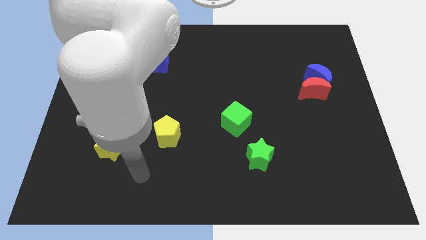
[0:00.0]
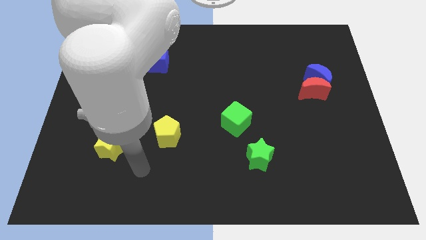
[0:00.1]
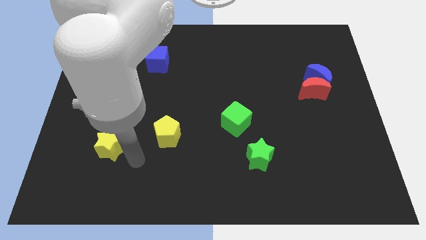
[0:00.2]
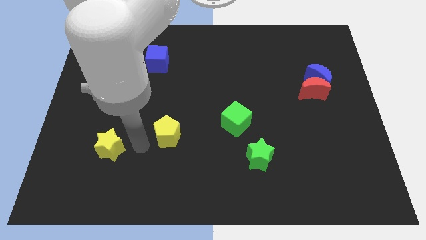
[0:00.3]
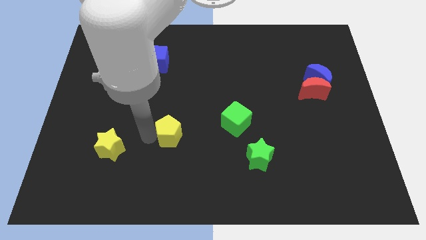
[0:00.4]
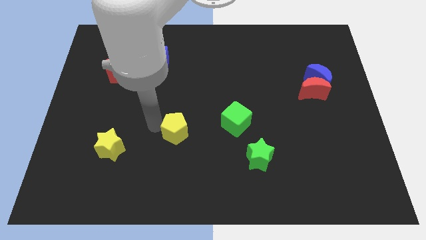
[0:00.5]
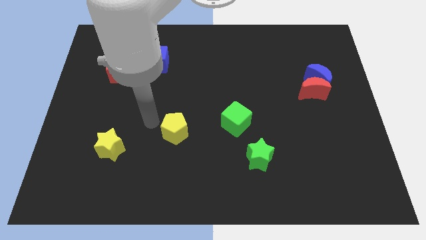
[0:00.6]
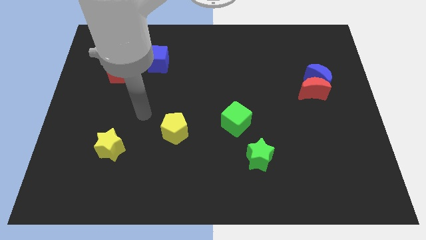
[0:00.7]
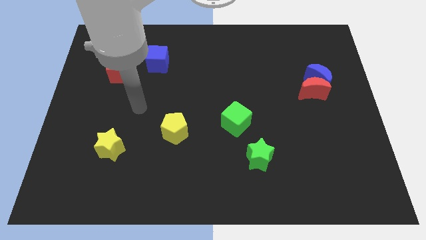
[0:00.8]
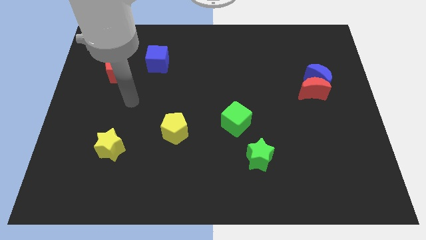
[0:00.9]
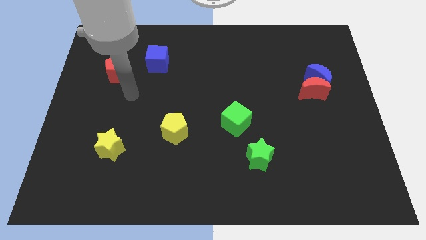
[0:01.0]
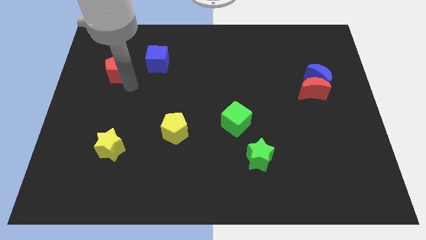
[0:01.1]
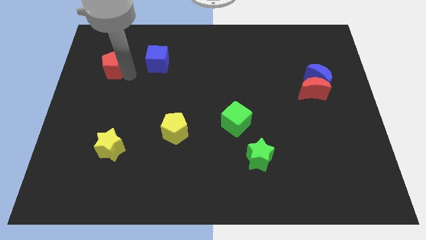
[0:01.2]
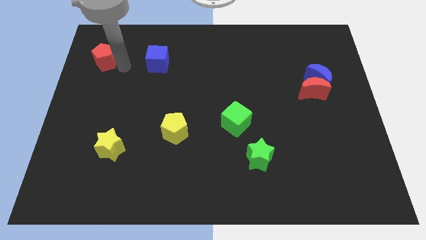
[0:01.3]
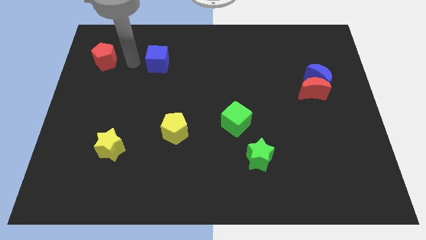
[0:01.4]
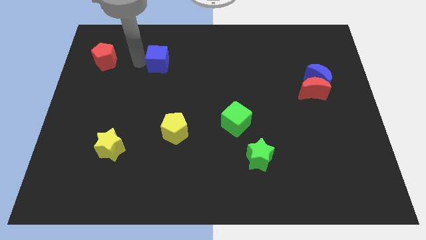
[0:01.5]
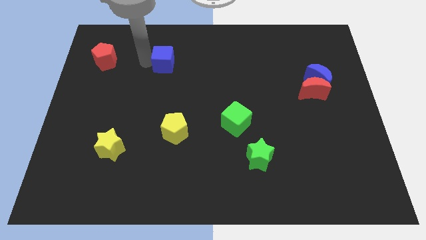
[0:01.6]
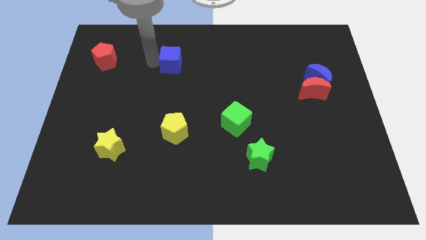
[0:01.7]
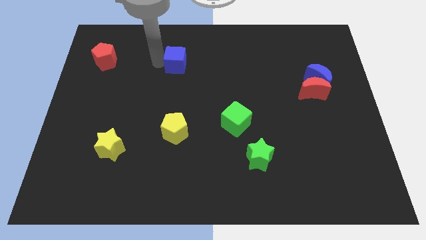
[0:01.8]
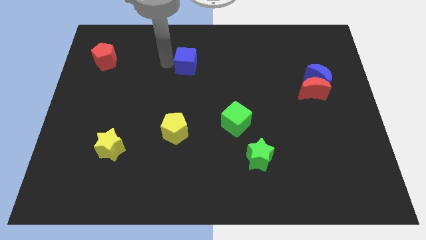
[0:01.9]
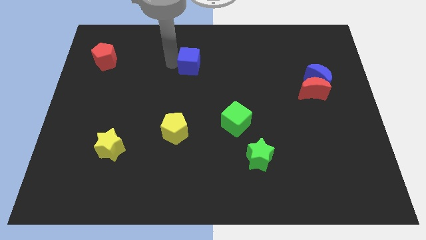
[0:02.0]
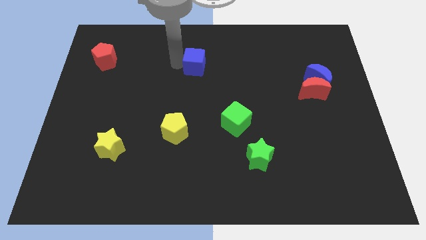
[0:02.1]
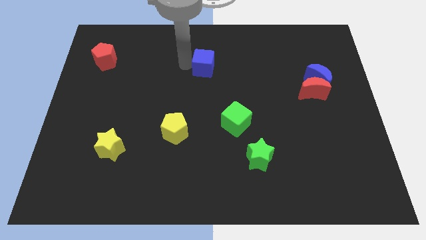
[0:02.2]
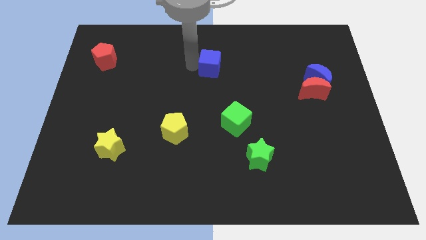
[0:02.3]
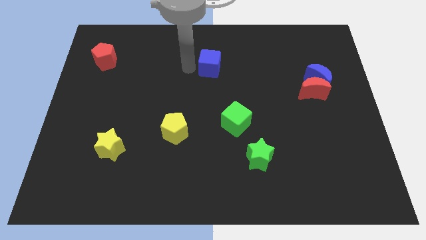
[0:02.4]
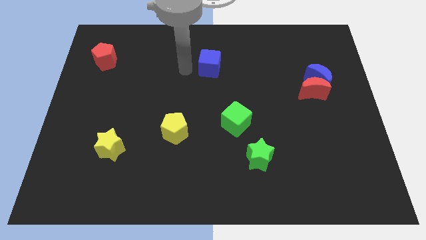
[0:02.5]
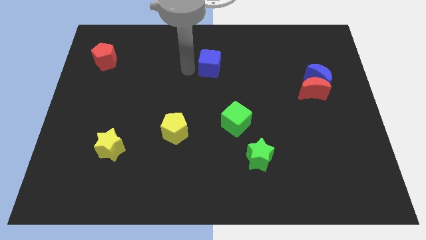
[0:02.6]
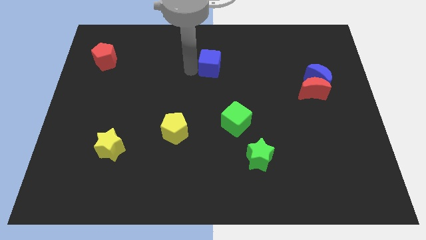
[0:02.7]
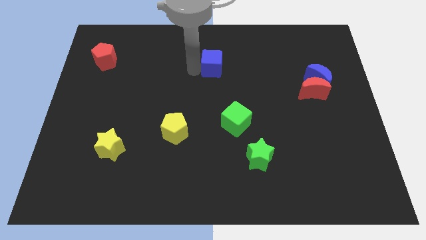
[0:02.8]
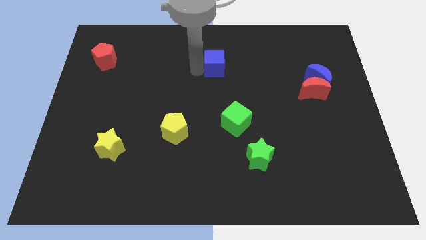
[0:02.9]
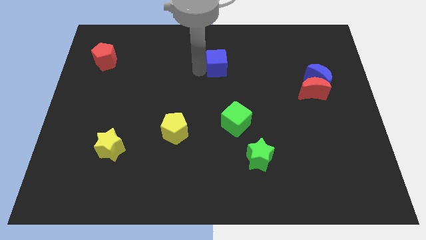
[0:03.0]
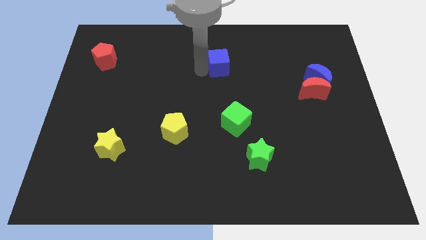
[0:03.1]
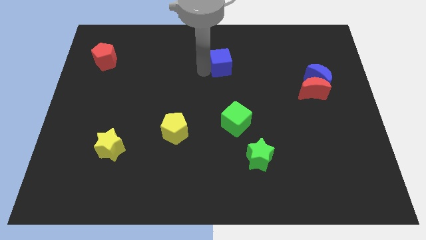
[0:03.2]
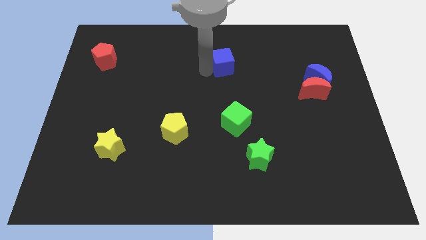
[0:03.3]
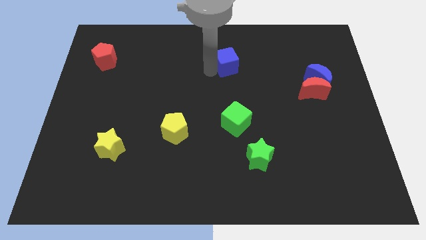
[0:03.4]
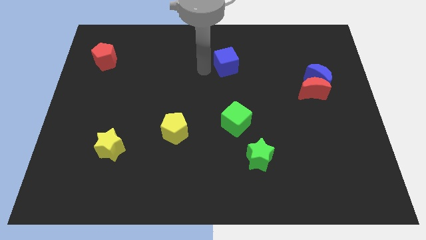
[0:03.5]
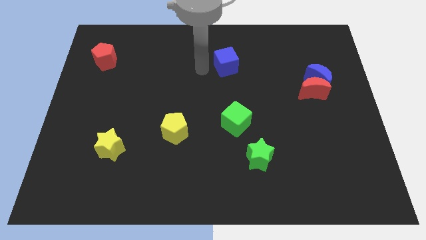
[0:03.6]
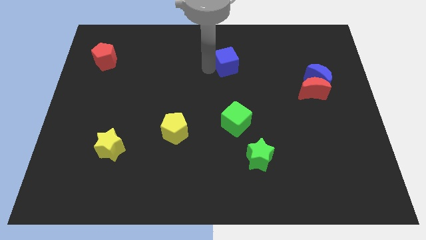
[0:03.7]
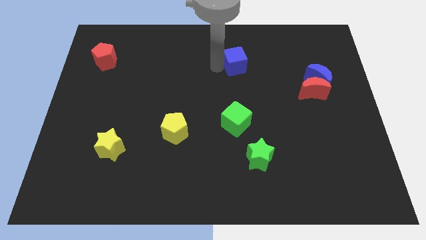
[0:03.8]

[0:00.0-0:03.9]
move the blue cube to the right

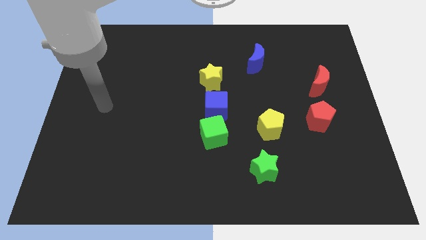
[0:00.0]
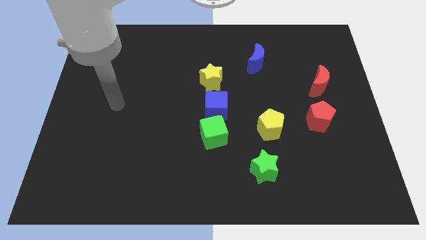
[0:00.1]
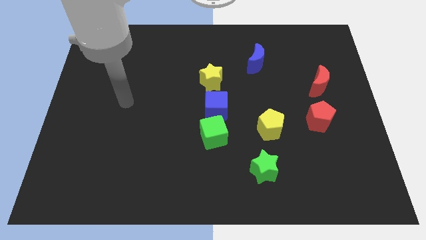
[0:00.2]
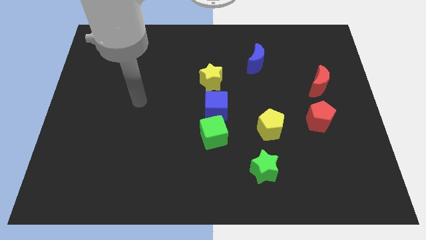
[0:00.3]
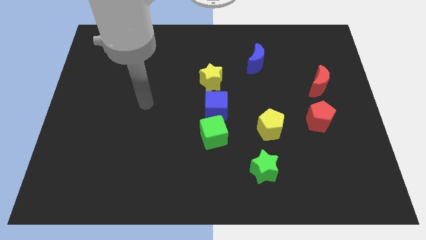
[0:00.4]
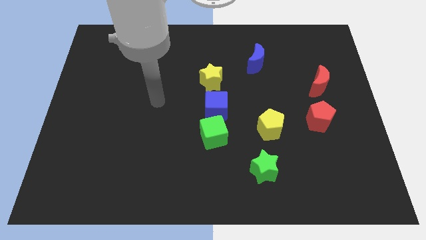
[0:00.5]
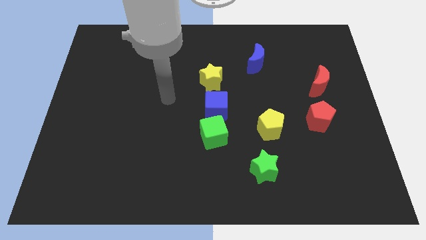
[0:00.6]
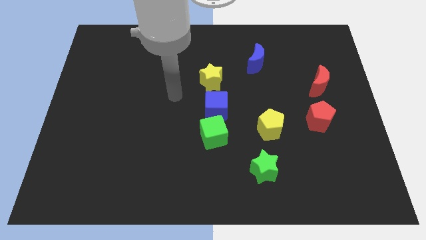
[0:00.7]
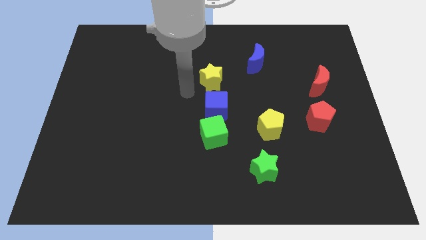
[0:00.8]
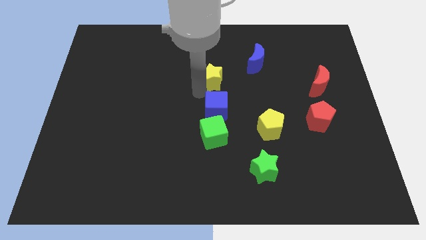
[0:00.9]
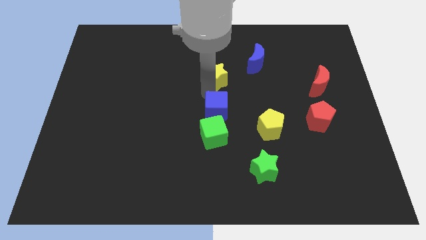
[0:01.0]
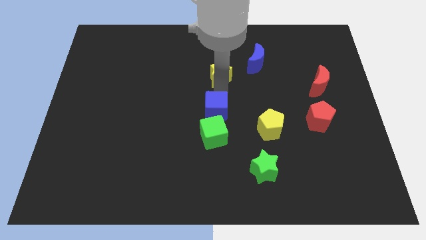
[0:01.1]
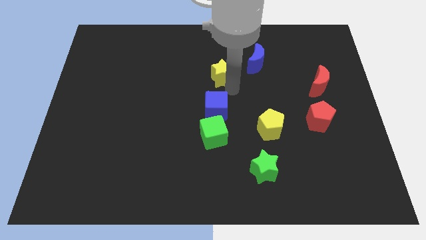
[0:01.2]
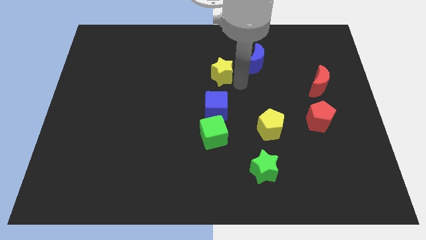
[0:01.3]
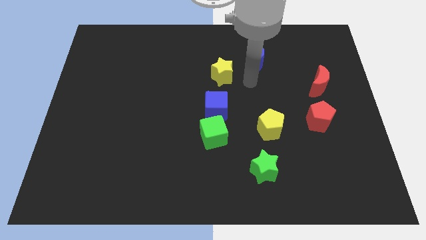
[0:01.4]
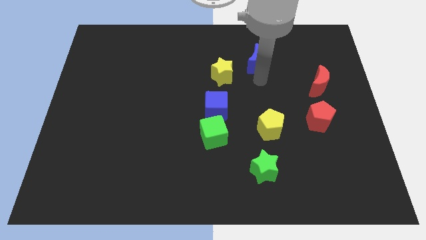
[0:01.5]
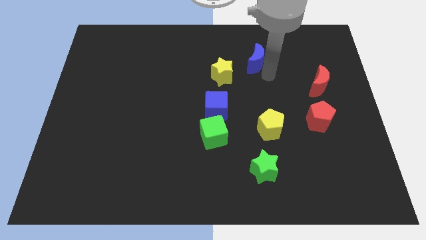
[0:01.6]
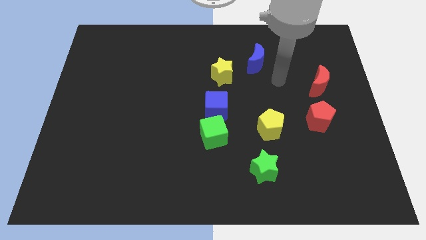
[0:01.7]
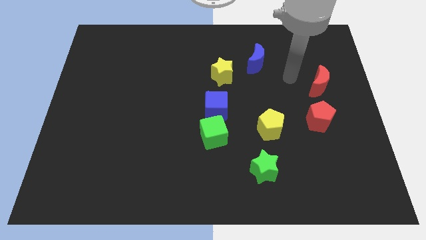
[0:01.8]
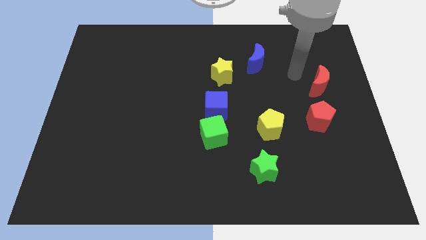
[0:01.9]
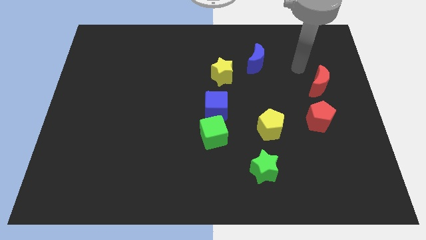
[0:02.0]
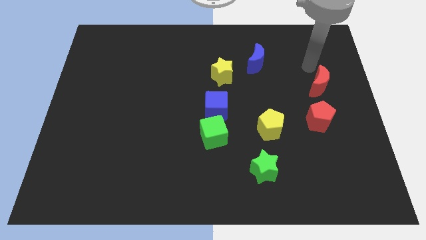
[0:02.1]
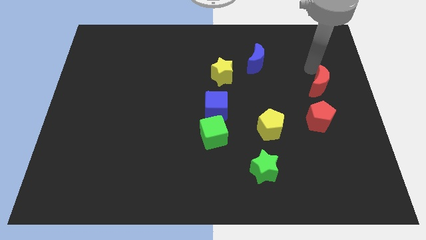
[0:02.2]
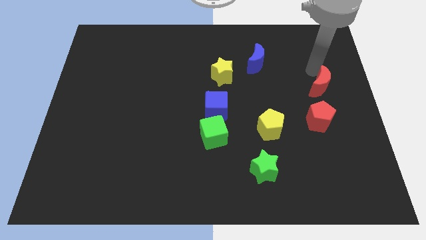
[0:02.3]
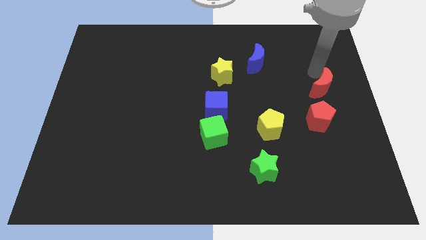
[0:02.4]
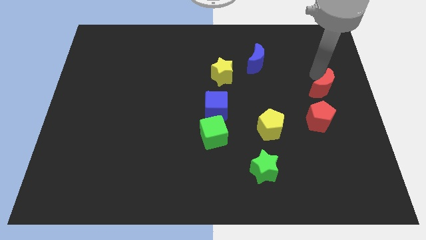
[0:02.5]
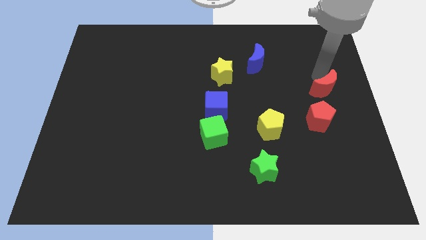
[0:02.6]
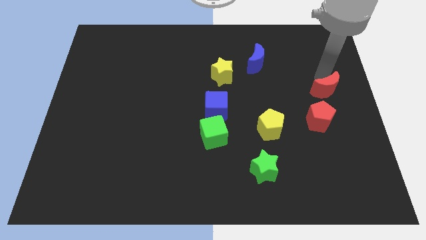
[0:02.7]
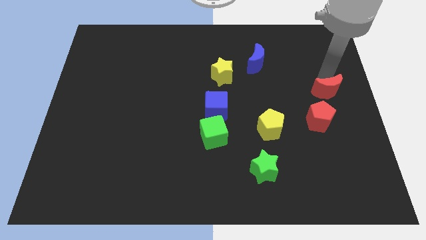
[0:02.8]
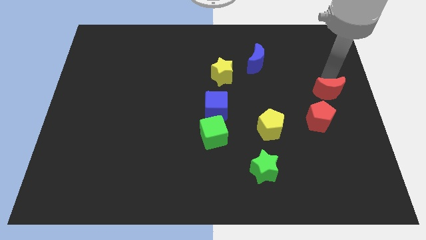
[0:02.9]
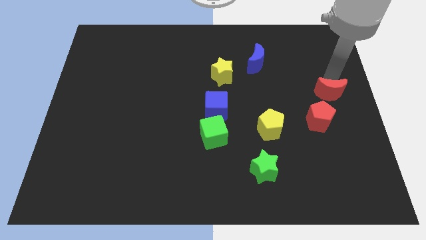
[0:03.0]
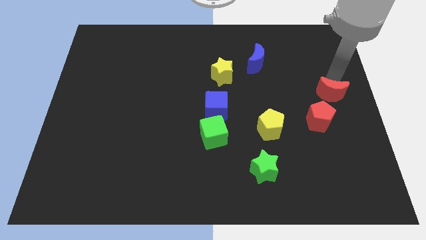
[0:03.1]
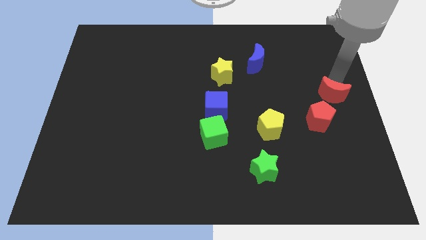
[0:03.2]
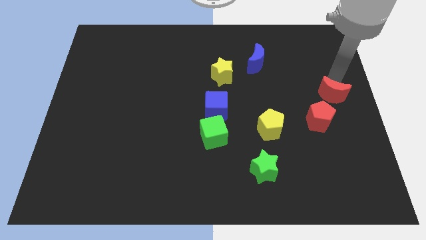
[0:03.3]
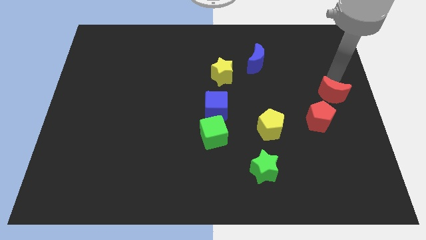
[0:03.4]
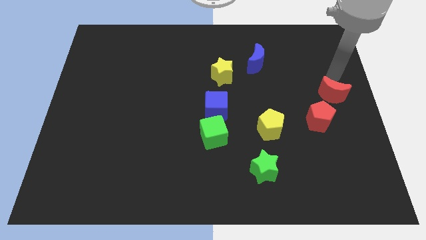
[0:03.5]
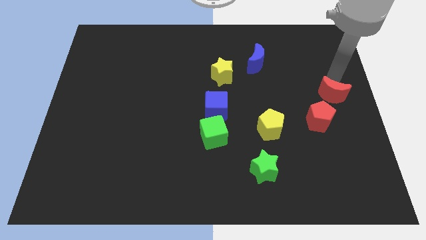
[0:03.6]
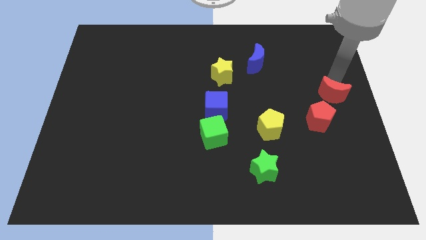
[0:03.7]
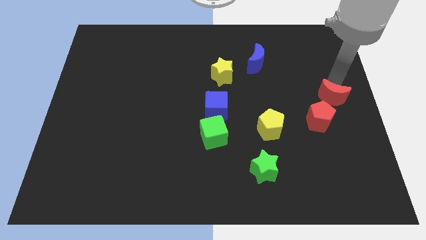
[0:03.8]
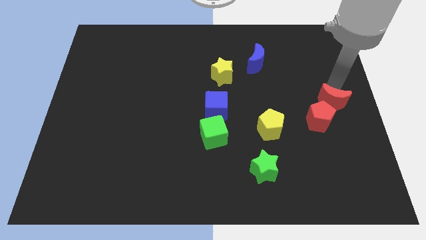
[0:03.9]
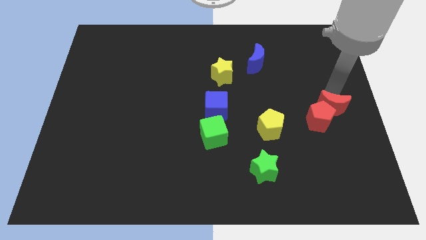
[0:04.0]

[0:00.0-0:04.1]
slightly push the red moon down

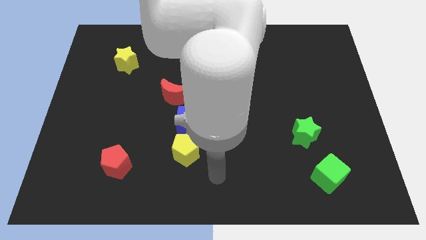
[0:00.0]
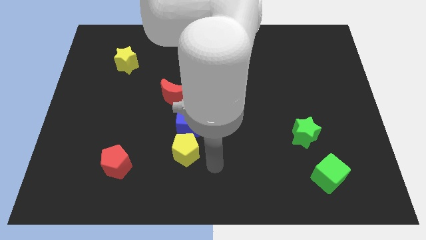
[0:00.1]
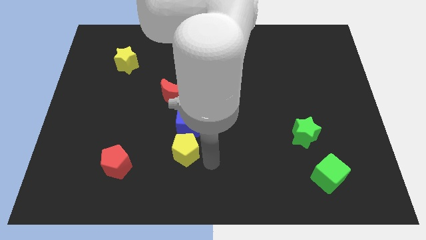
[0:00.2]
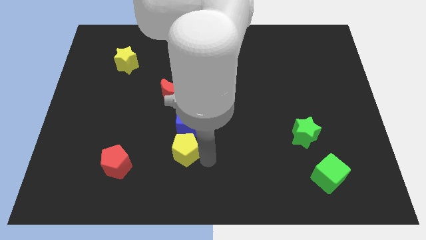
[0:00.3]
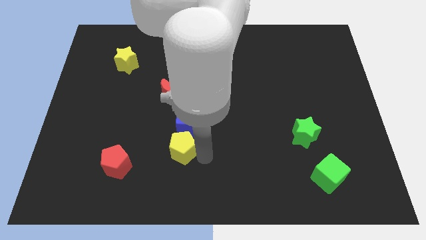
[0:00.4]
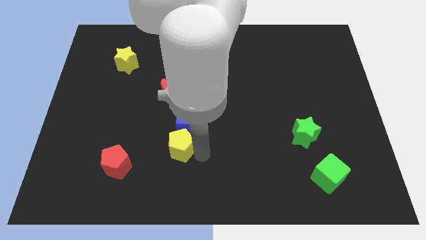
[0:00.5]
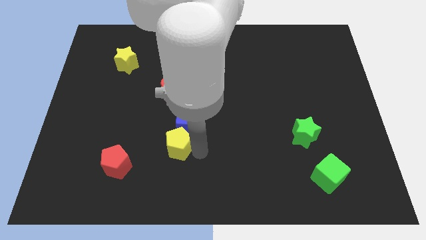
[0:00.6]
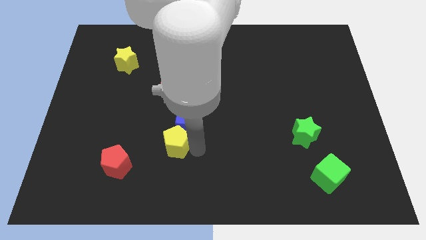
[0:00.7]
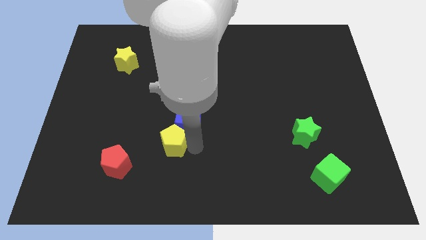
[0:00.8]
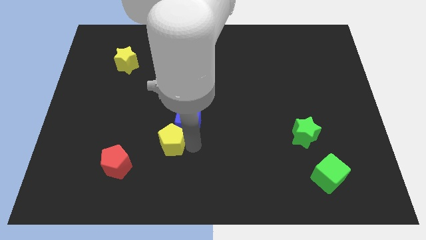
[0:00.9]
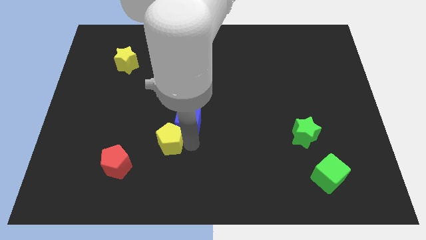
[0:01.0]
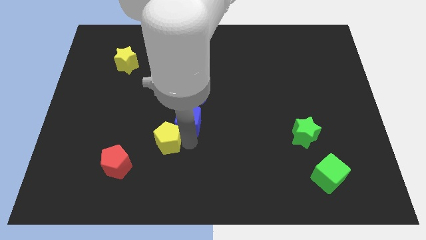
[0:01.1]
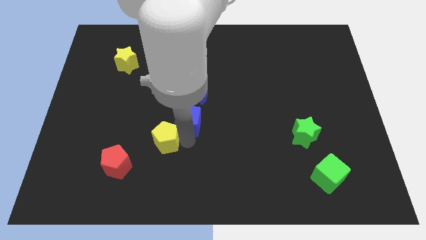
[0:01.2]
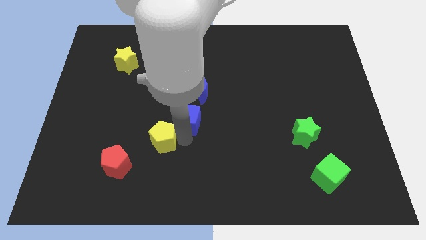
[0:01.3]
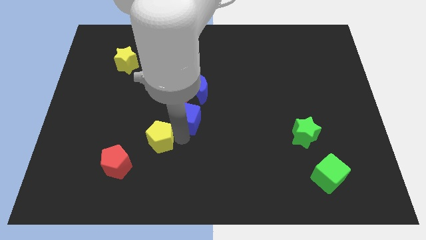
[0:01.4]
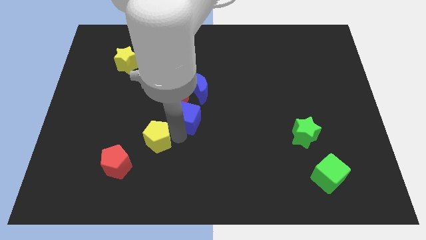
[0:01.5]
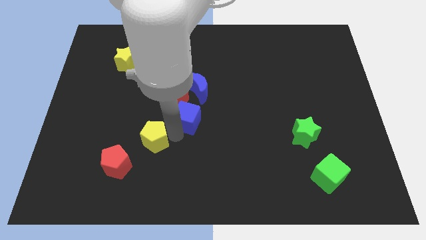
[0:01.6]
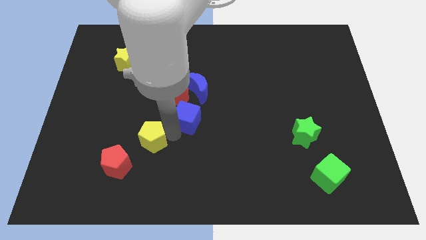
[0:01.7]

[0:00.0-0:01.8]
slightly slide the yellow pentagon left
